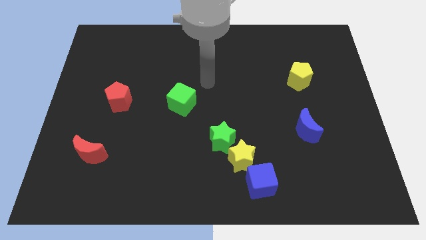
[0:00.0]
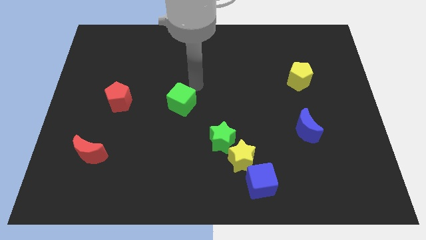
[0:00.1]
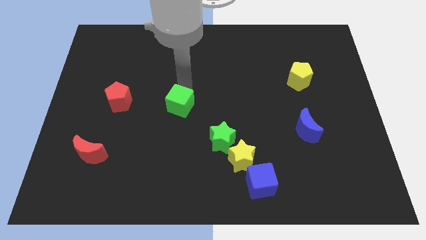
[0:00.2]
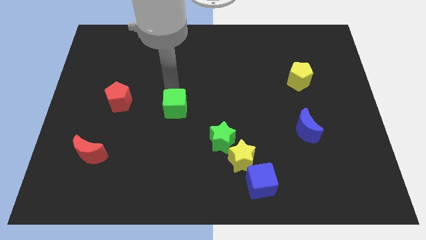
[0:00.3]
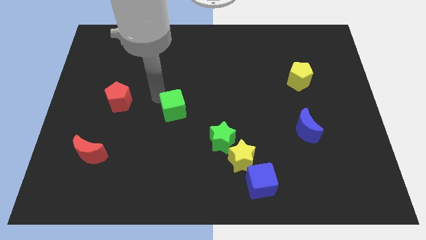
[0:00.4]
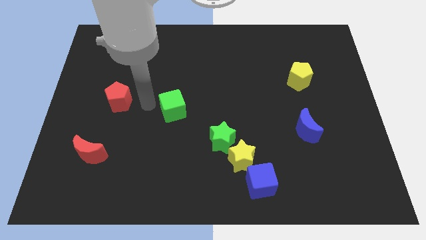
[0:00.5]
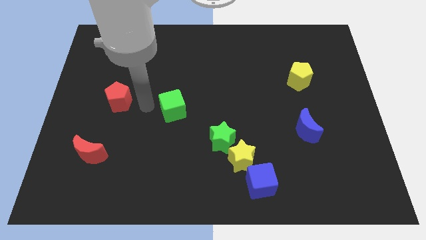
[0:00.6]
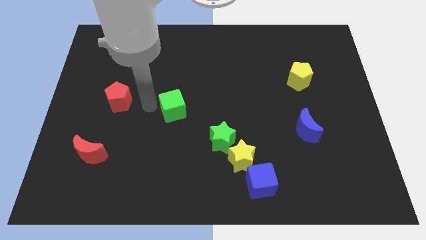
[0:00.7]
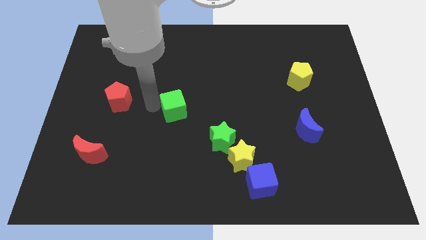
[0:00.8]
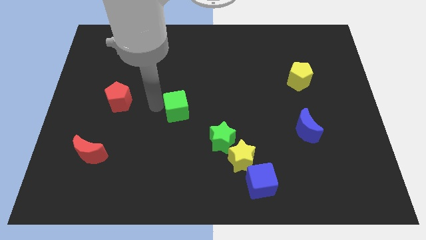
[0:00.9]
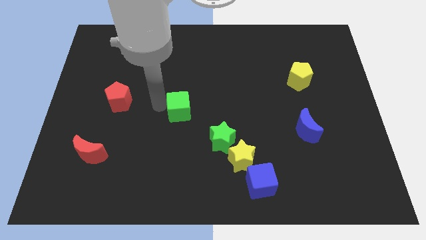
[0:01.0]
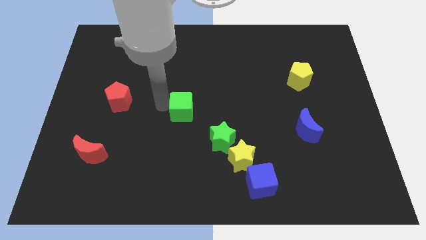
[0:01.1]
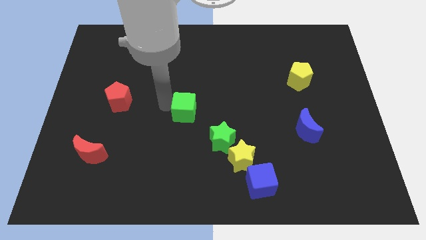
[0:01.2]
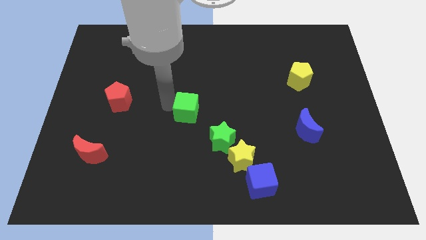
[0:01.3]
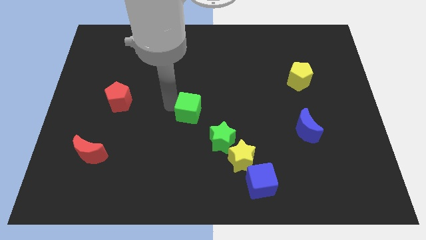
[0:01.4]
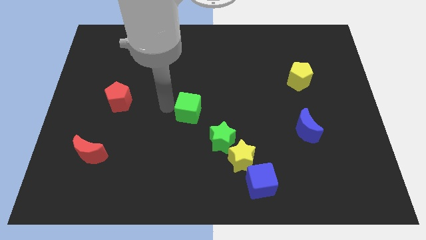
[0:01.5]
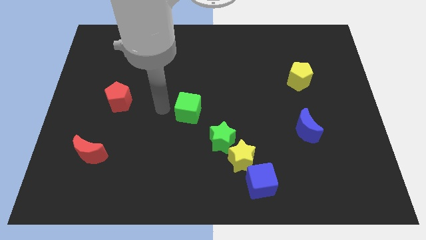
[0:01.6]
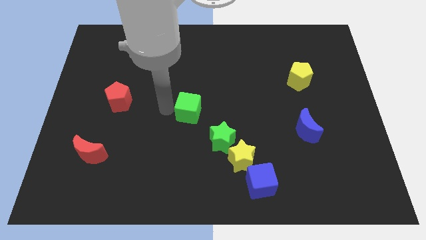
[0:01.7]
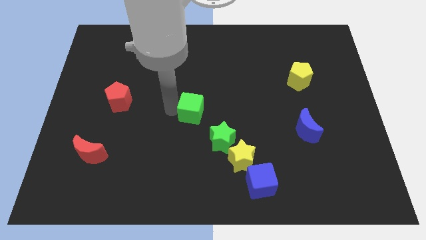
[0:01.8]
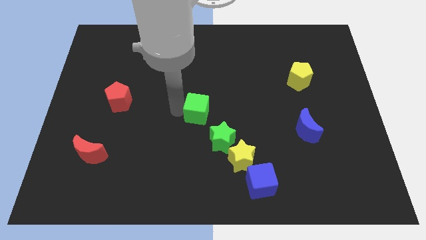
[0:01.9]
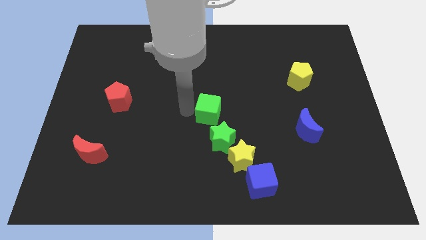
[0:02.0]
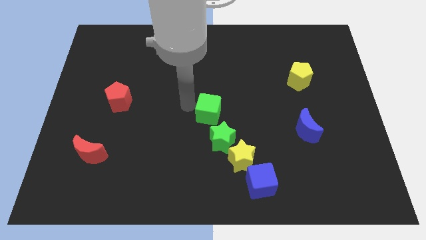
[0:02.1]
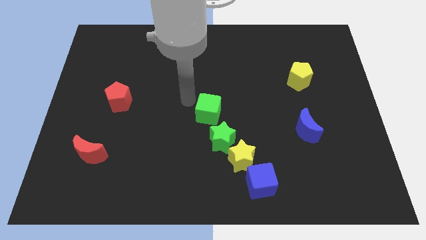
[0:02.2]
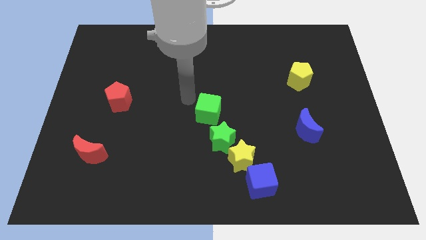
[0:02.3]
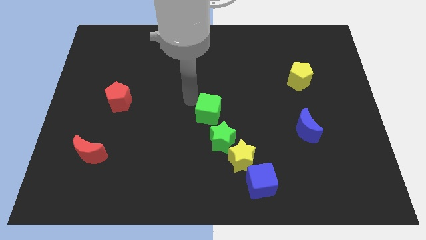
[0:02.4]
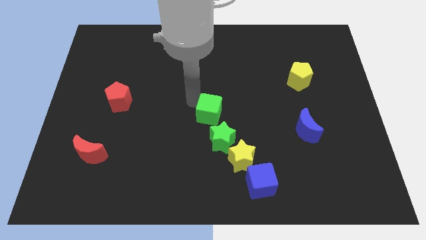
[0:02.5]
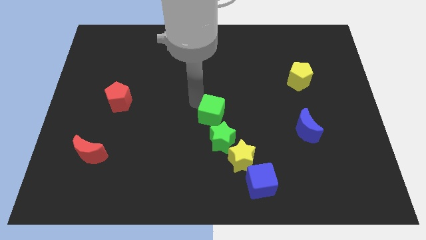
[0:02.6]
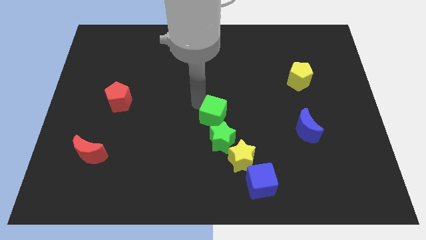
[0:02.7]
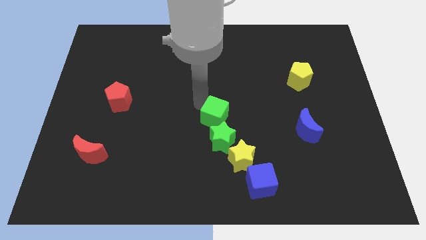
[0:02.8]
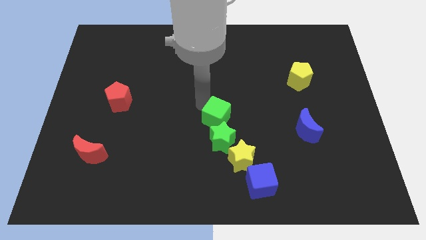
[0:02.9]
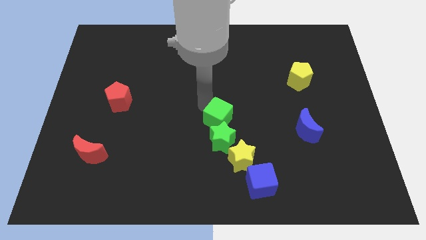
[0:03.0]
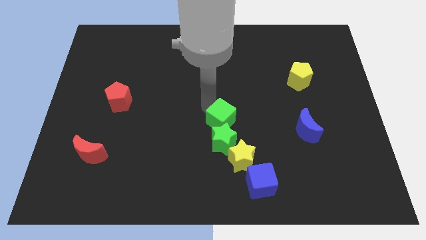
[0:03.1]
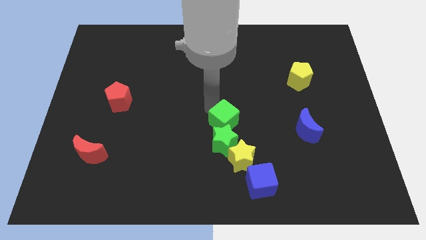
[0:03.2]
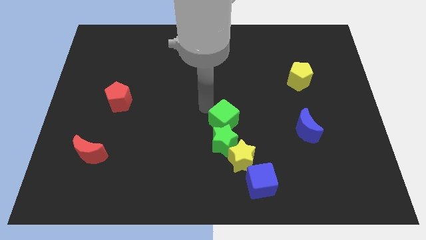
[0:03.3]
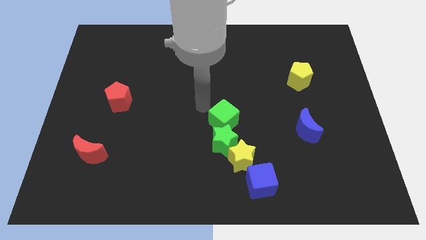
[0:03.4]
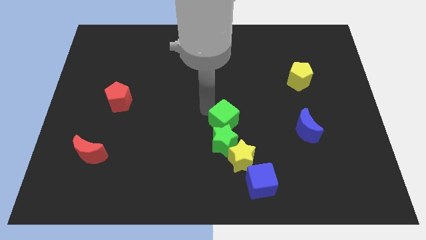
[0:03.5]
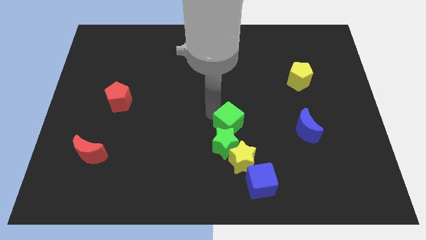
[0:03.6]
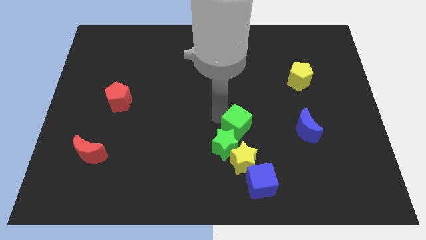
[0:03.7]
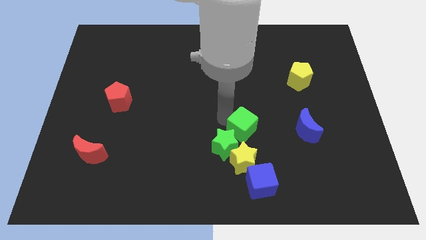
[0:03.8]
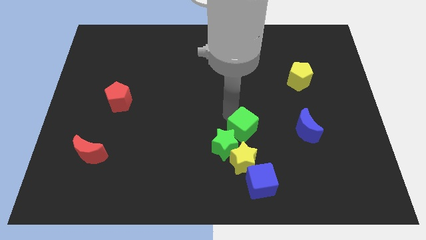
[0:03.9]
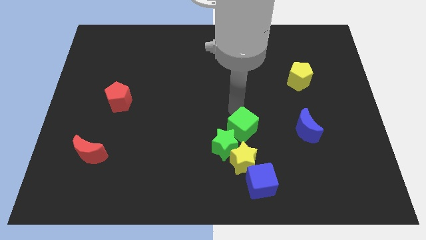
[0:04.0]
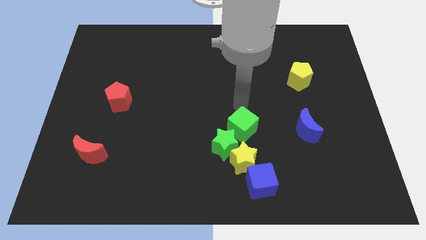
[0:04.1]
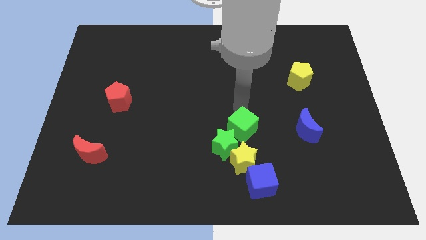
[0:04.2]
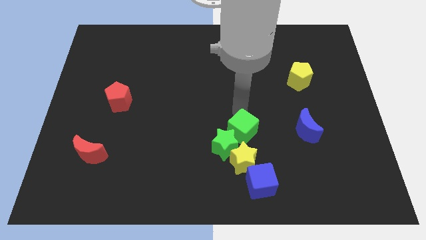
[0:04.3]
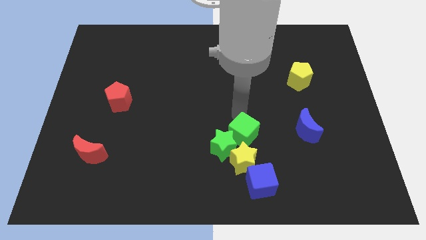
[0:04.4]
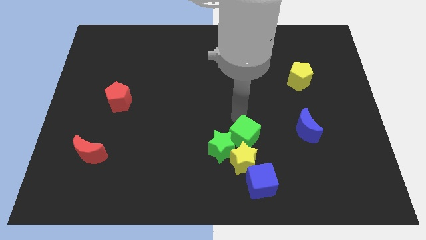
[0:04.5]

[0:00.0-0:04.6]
push the green cube next to the yellow star

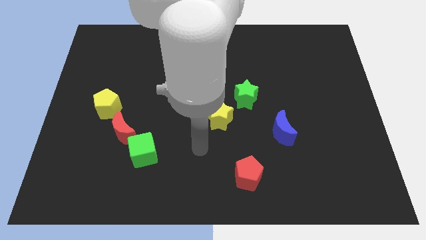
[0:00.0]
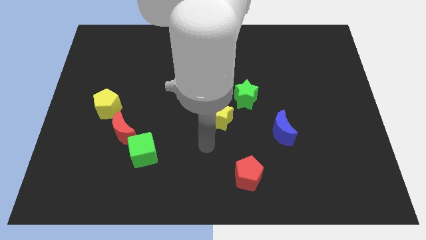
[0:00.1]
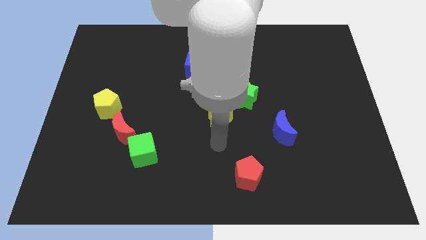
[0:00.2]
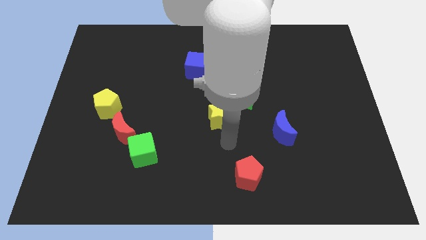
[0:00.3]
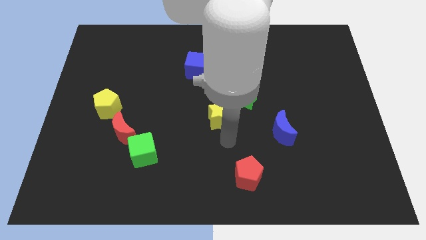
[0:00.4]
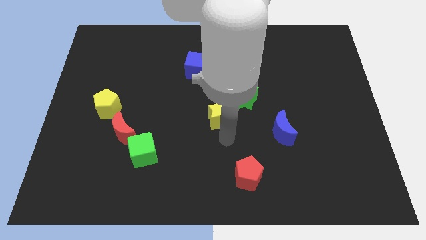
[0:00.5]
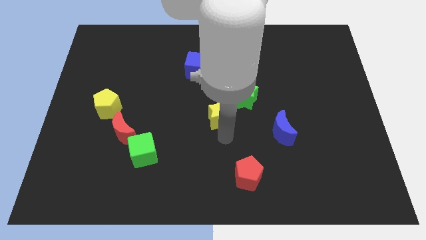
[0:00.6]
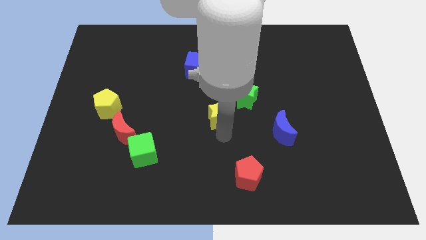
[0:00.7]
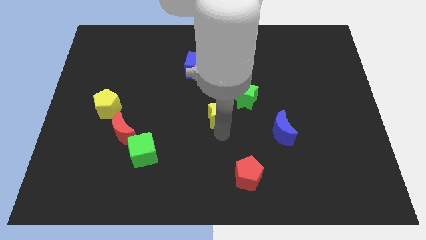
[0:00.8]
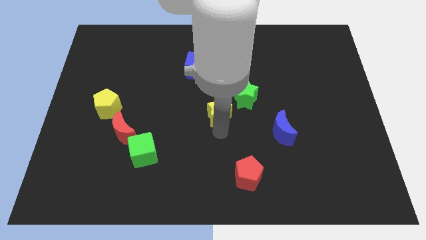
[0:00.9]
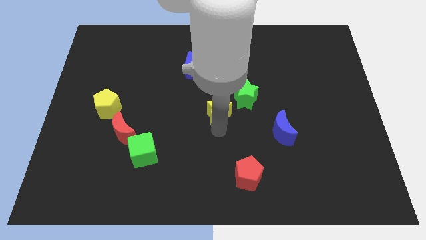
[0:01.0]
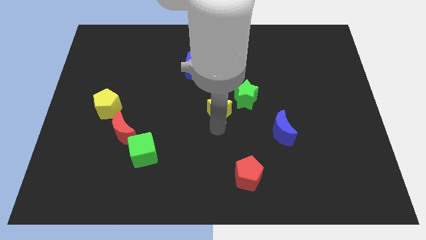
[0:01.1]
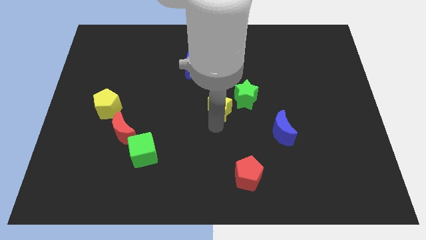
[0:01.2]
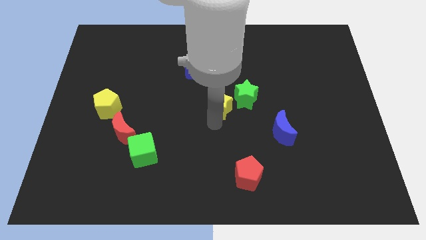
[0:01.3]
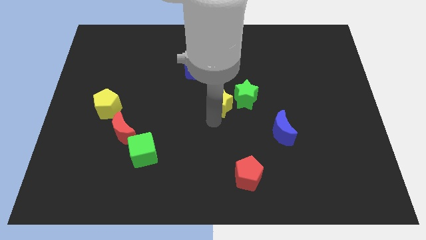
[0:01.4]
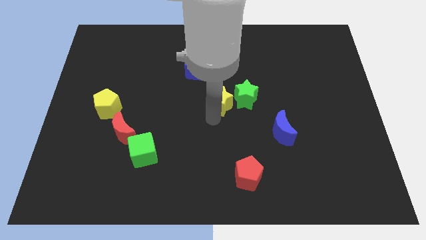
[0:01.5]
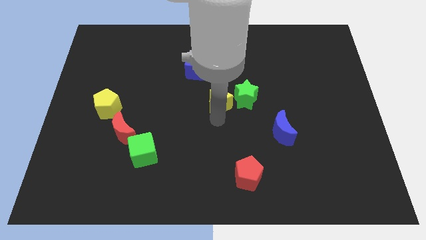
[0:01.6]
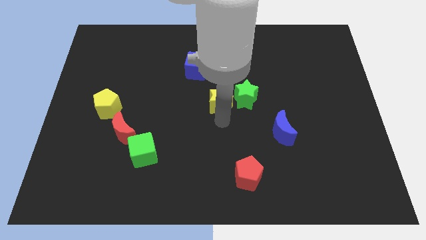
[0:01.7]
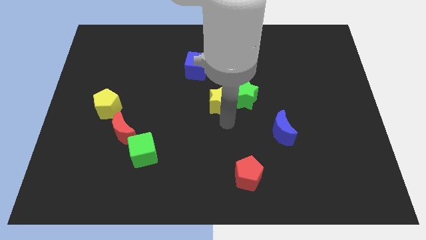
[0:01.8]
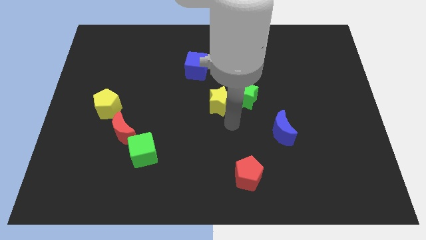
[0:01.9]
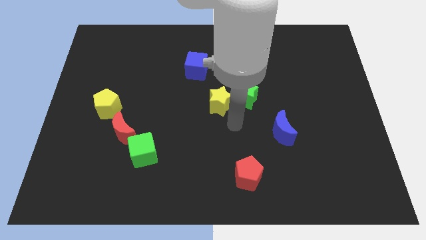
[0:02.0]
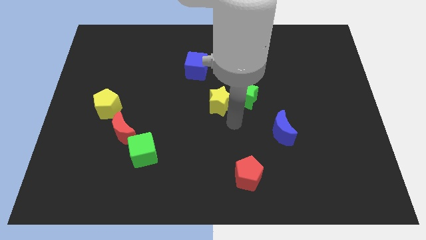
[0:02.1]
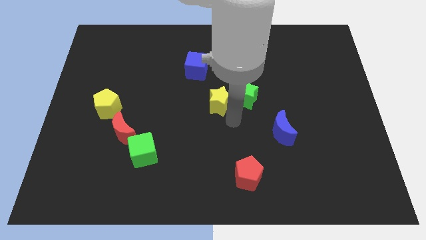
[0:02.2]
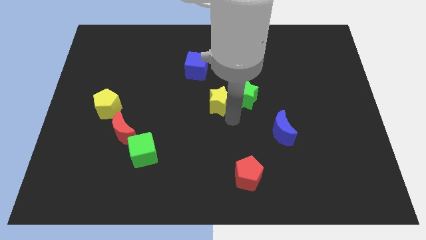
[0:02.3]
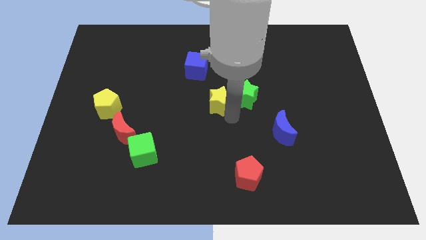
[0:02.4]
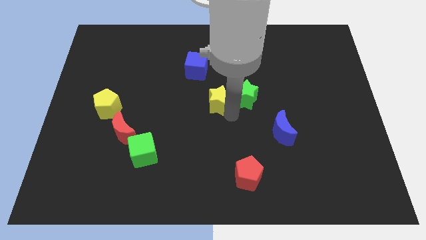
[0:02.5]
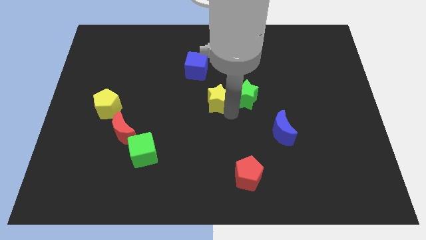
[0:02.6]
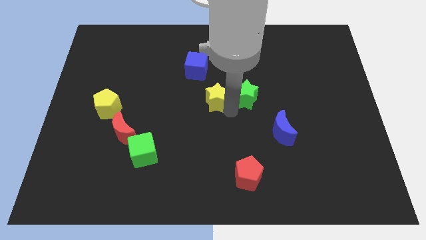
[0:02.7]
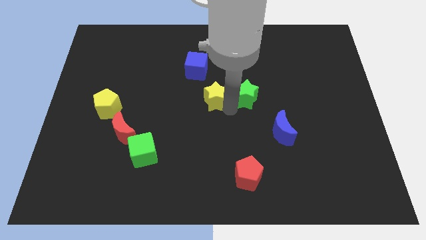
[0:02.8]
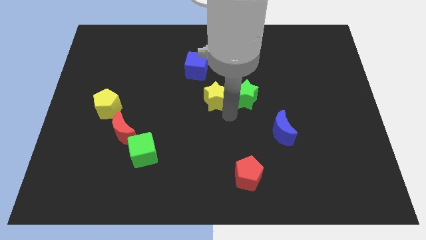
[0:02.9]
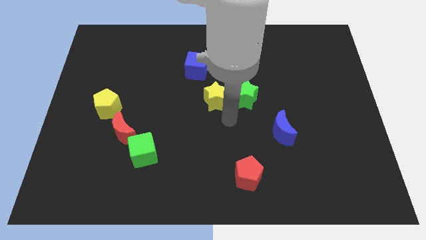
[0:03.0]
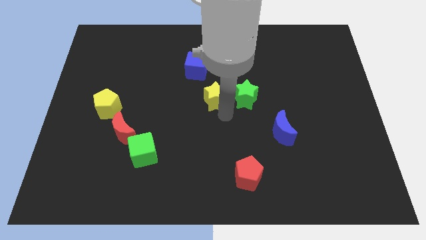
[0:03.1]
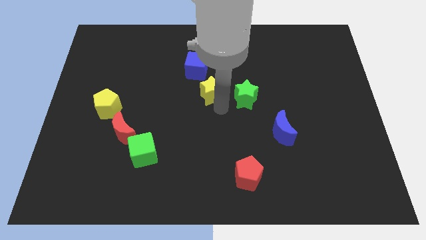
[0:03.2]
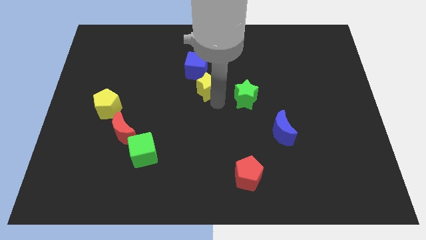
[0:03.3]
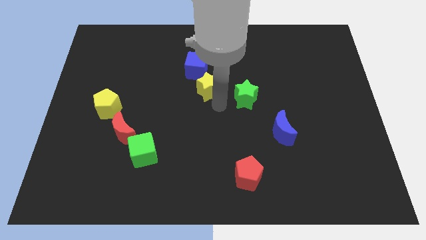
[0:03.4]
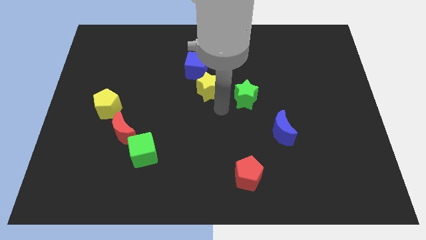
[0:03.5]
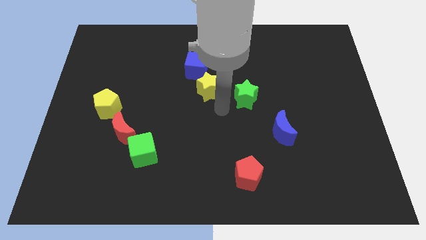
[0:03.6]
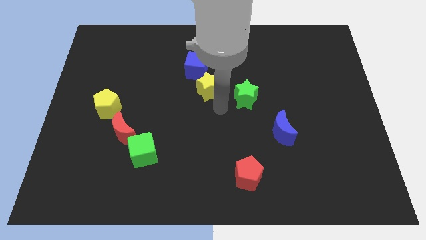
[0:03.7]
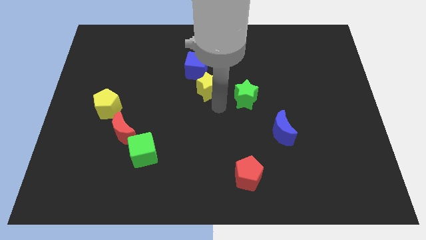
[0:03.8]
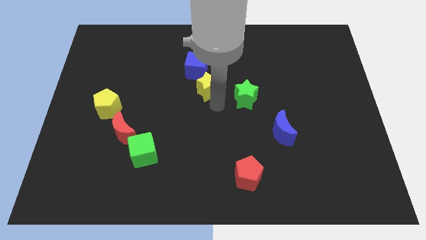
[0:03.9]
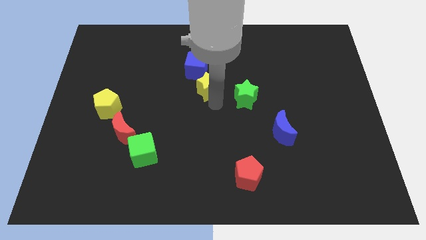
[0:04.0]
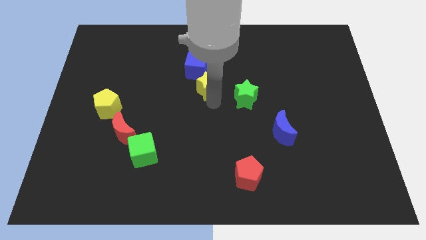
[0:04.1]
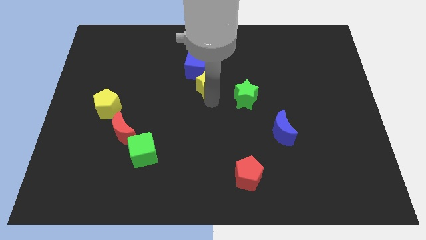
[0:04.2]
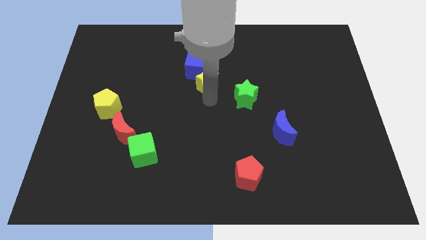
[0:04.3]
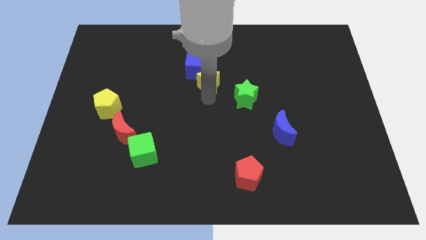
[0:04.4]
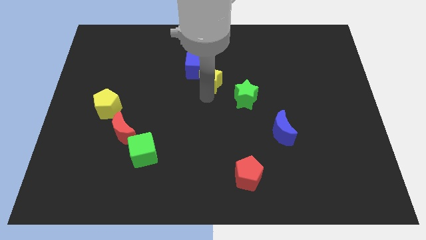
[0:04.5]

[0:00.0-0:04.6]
move the yellow star to the blue cube
